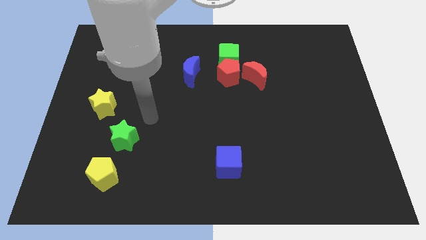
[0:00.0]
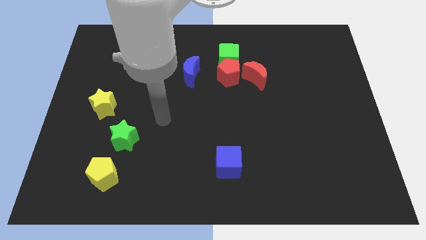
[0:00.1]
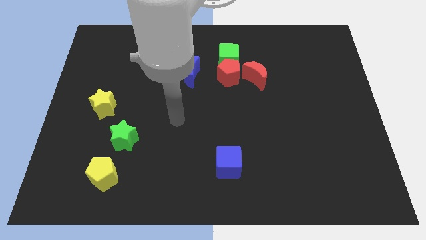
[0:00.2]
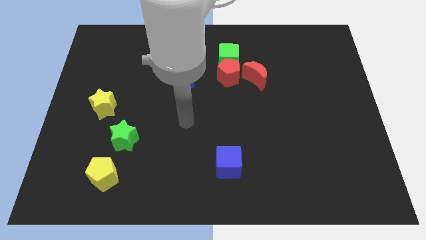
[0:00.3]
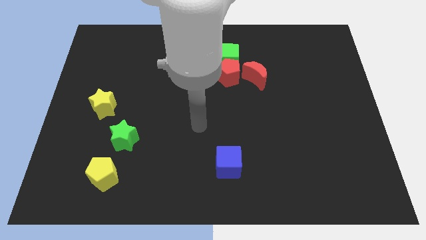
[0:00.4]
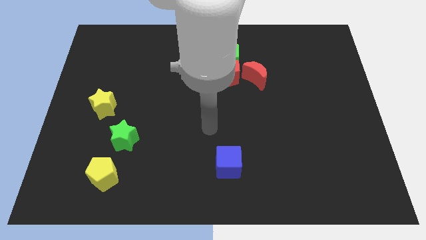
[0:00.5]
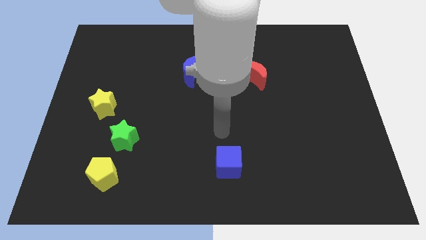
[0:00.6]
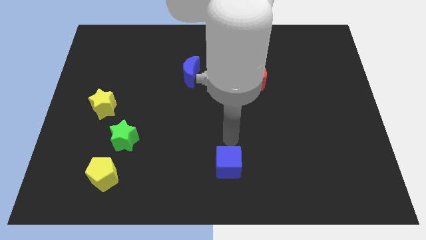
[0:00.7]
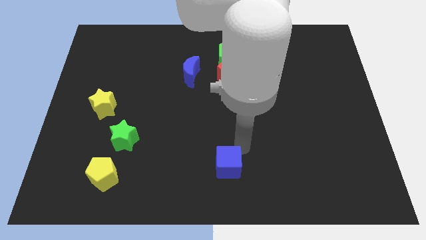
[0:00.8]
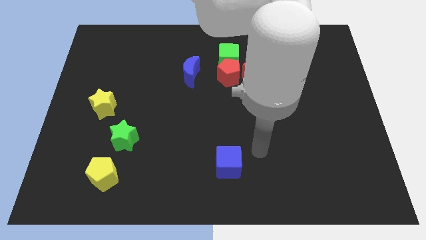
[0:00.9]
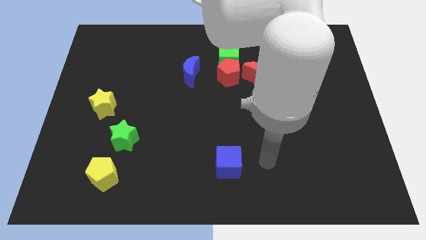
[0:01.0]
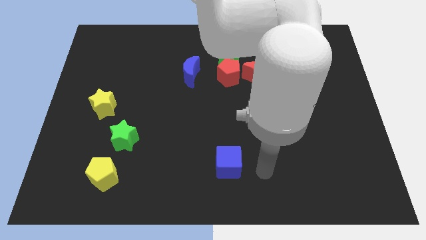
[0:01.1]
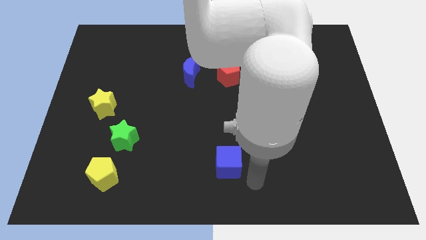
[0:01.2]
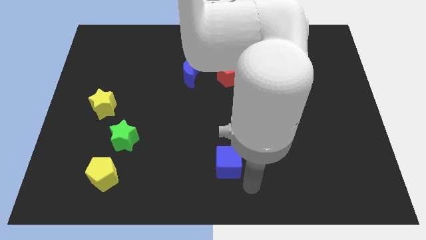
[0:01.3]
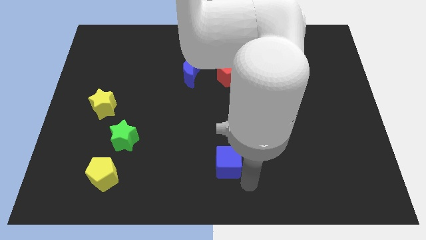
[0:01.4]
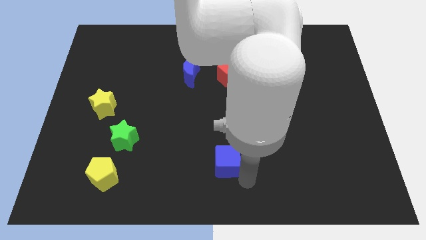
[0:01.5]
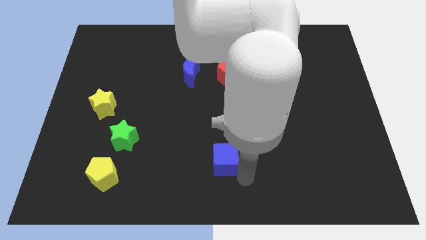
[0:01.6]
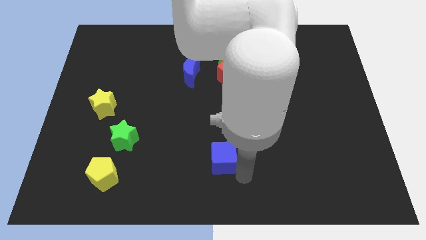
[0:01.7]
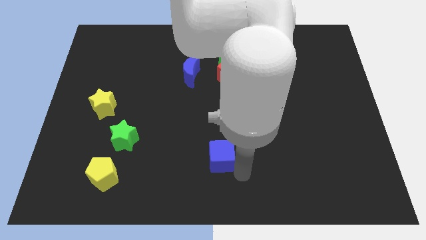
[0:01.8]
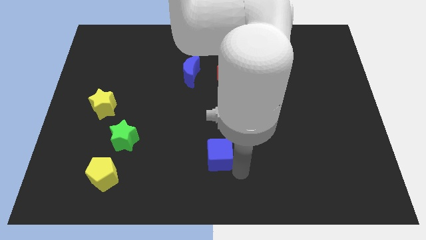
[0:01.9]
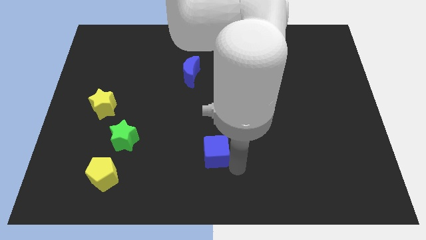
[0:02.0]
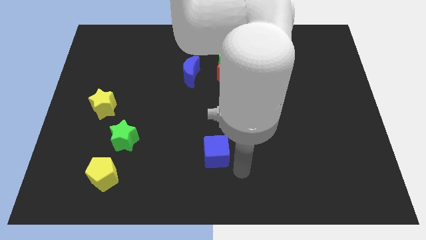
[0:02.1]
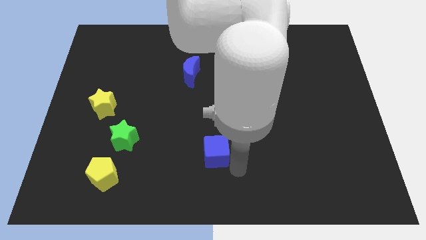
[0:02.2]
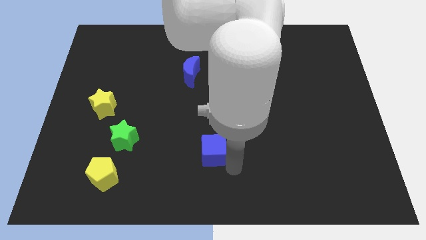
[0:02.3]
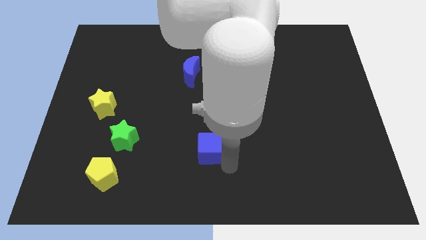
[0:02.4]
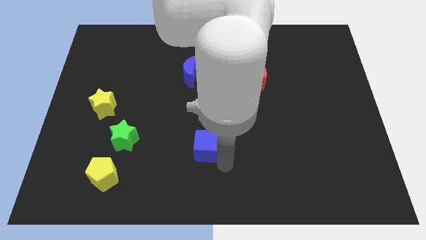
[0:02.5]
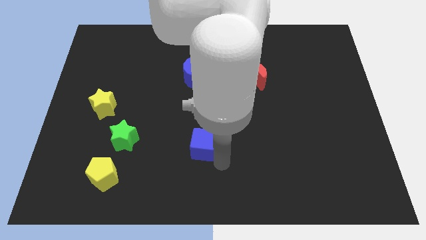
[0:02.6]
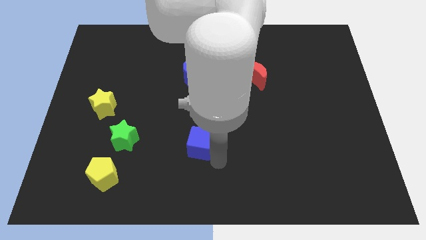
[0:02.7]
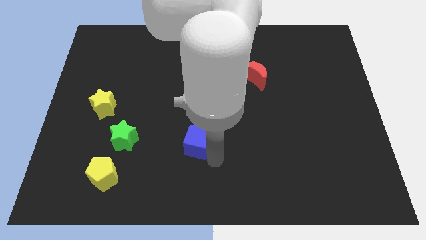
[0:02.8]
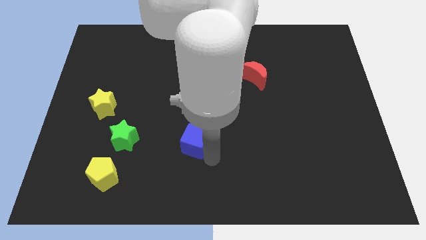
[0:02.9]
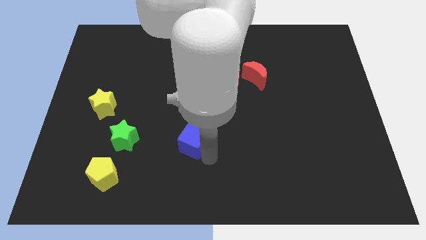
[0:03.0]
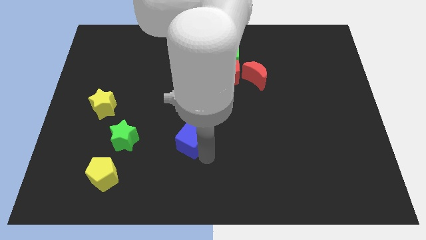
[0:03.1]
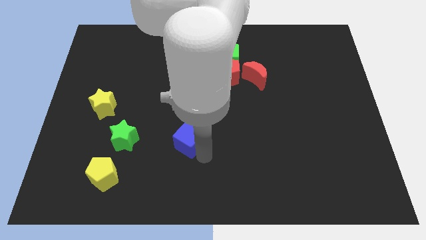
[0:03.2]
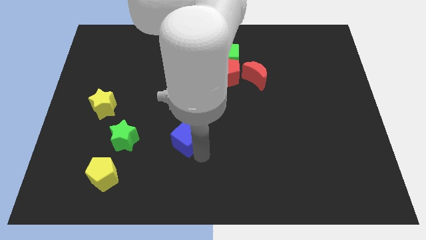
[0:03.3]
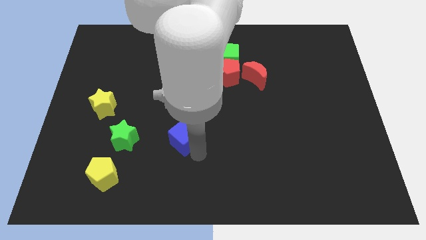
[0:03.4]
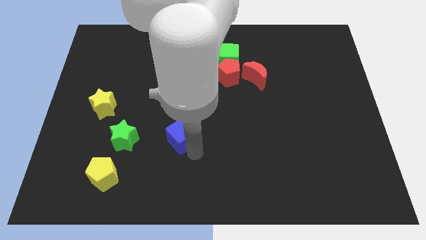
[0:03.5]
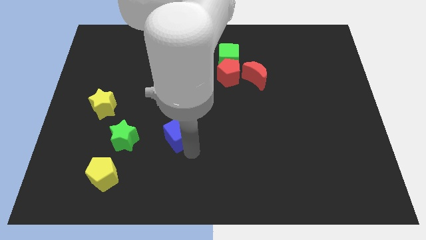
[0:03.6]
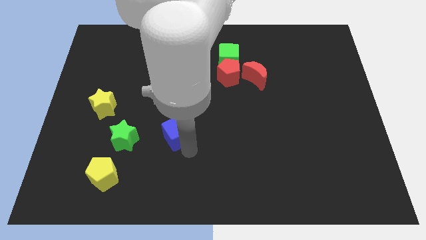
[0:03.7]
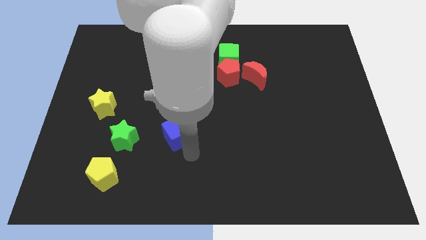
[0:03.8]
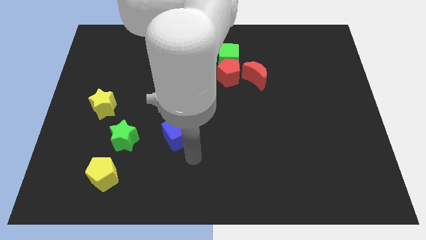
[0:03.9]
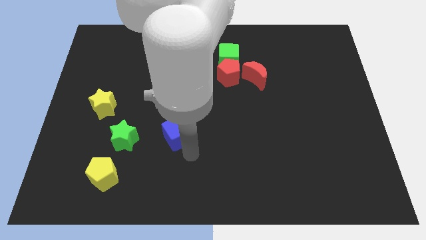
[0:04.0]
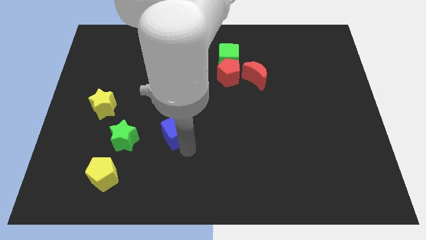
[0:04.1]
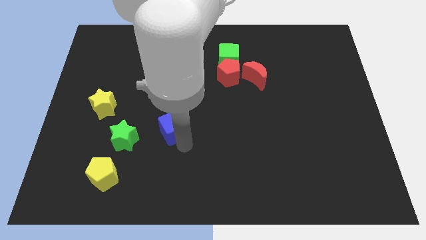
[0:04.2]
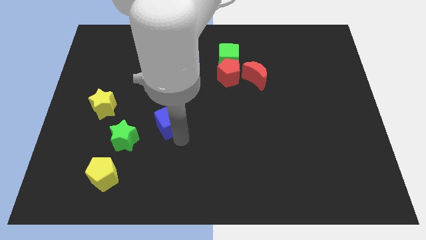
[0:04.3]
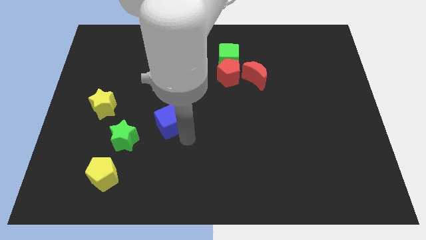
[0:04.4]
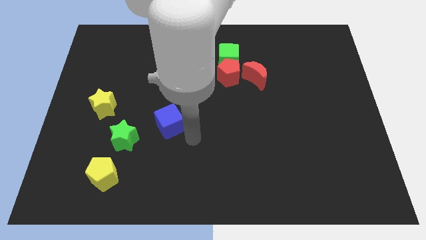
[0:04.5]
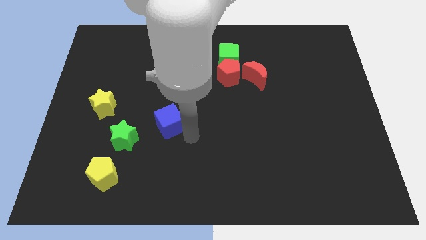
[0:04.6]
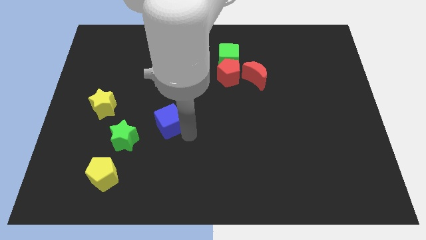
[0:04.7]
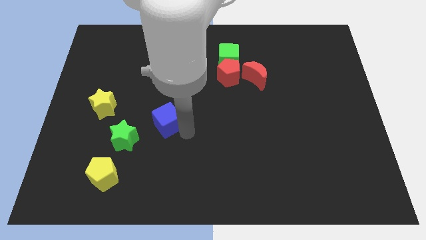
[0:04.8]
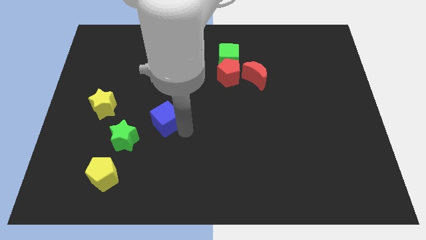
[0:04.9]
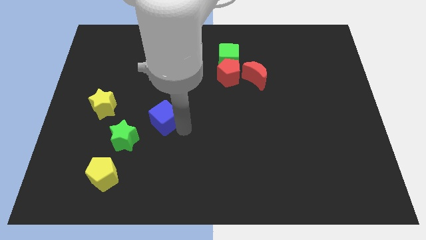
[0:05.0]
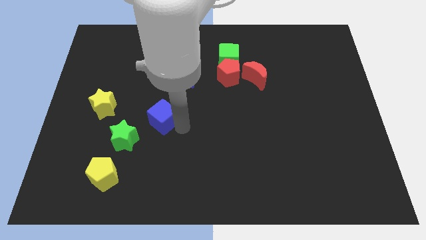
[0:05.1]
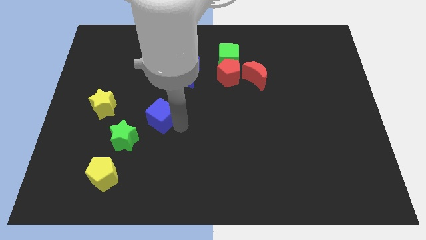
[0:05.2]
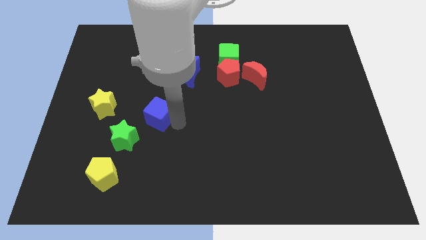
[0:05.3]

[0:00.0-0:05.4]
slide the blue cube up and left

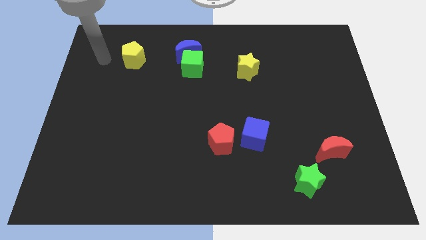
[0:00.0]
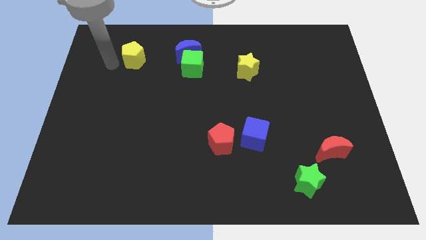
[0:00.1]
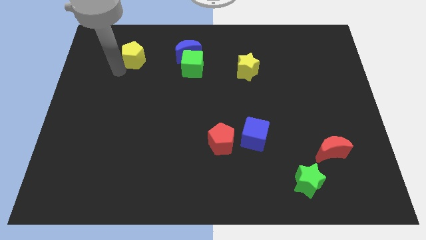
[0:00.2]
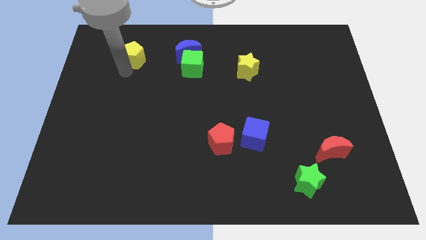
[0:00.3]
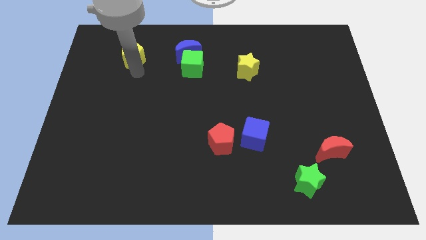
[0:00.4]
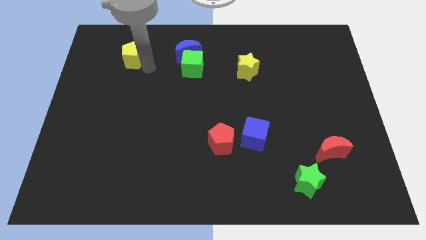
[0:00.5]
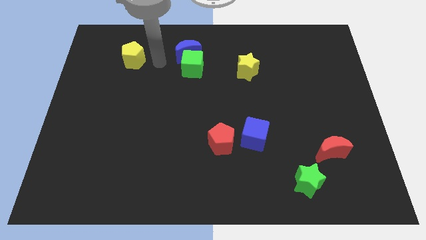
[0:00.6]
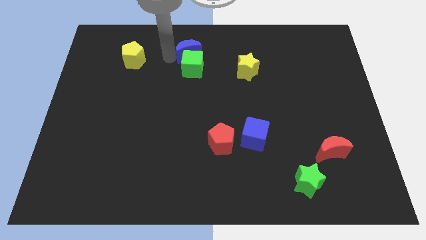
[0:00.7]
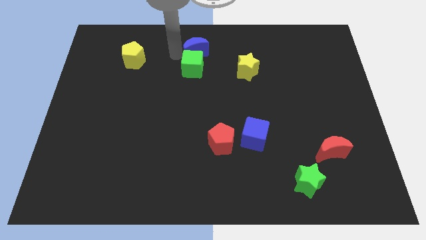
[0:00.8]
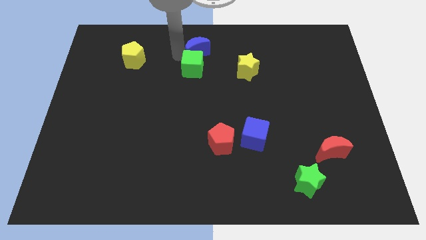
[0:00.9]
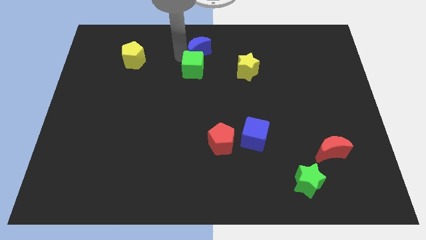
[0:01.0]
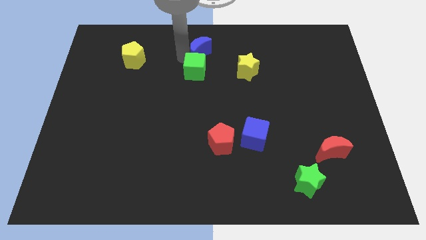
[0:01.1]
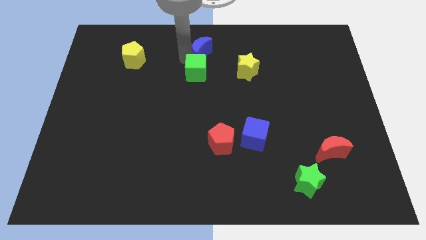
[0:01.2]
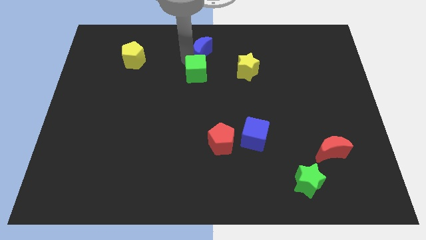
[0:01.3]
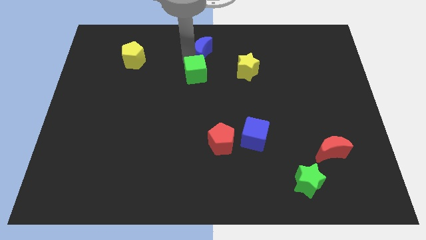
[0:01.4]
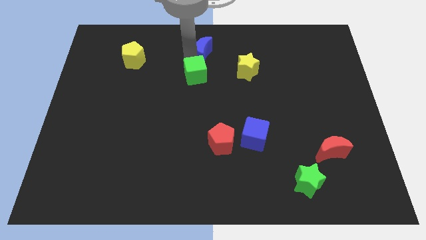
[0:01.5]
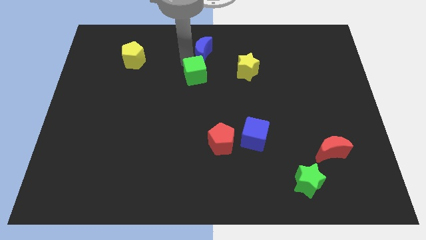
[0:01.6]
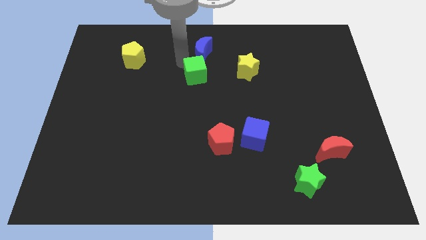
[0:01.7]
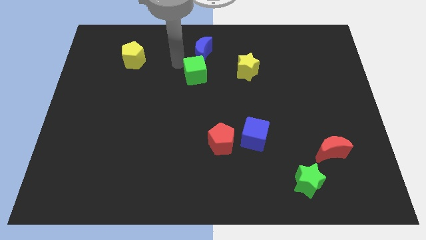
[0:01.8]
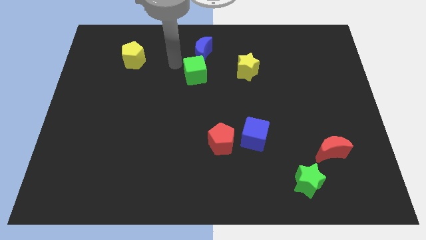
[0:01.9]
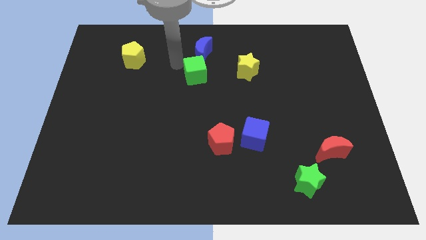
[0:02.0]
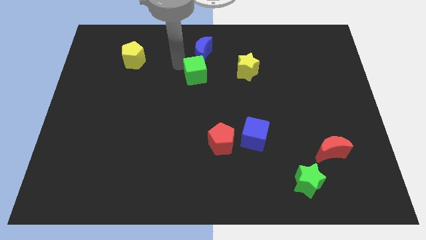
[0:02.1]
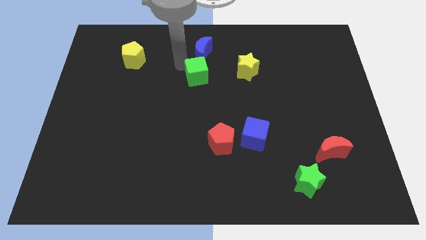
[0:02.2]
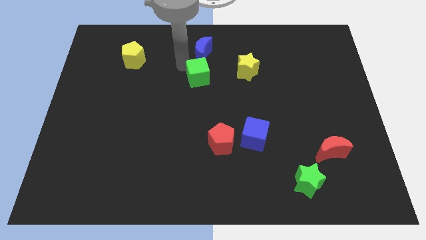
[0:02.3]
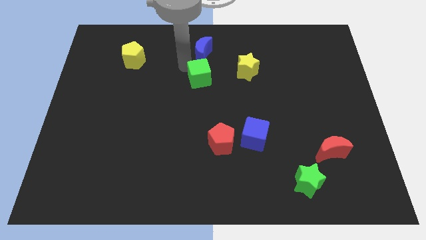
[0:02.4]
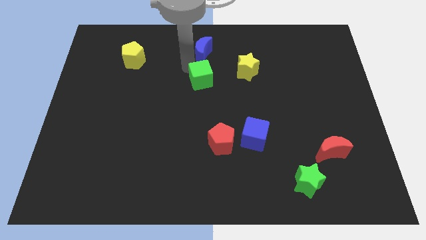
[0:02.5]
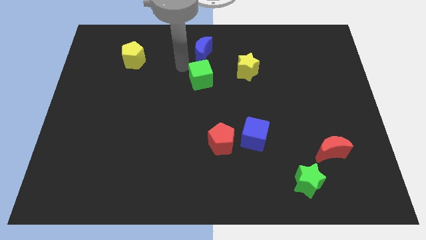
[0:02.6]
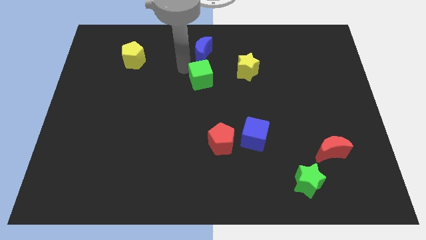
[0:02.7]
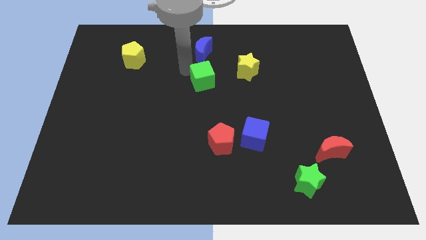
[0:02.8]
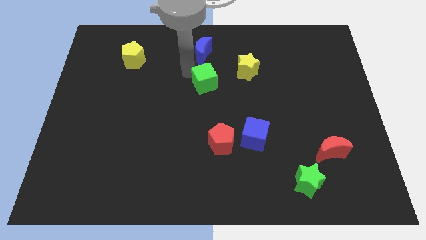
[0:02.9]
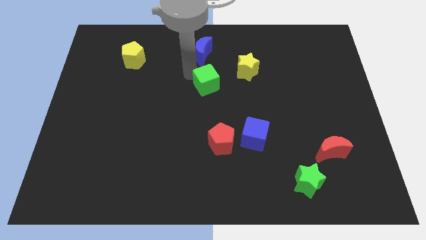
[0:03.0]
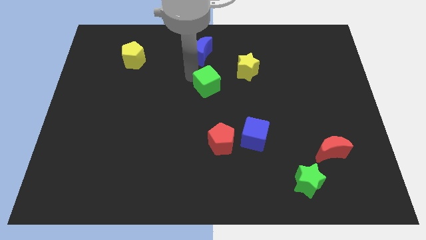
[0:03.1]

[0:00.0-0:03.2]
push the green cube slightly downwards and then right
